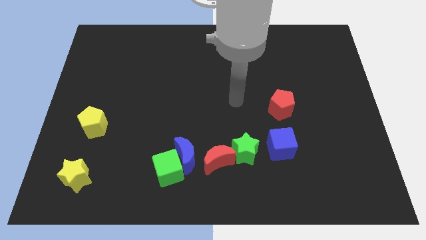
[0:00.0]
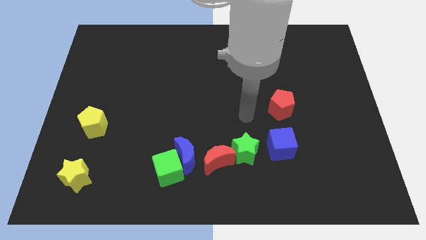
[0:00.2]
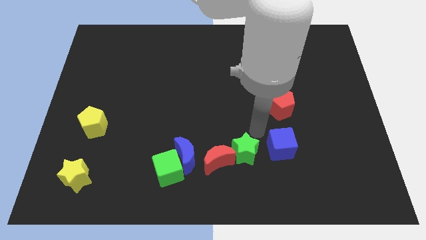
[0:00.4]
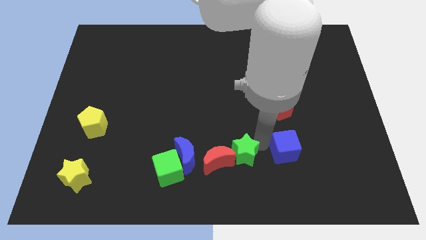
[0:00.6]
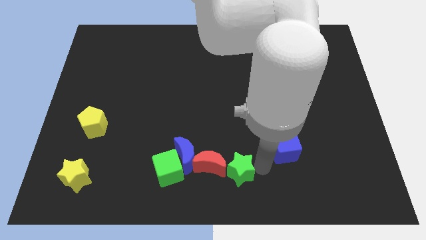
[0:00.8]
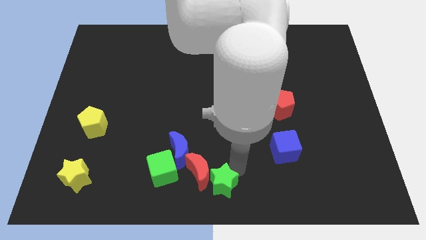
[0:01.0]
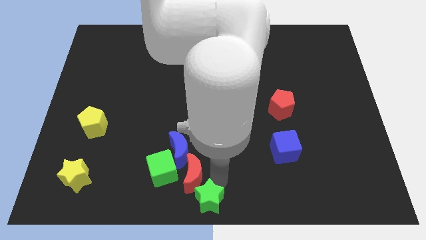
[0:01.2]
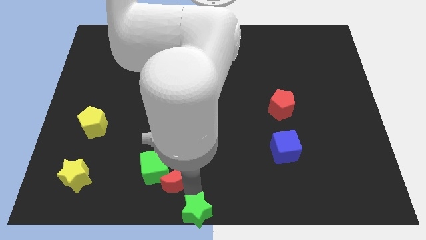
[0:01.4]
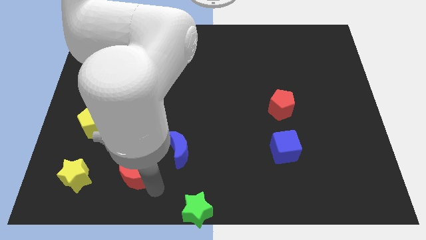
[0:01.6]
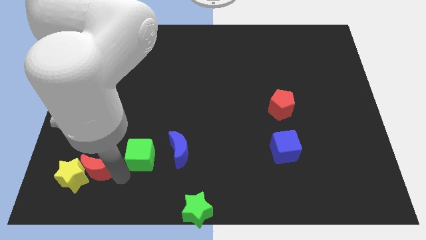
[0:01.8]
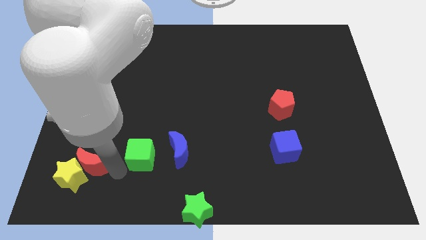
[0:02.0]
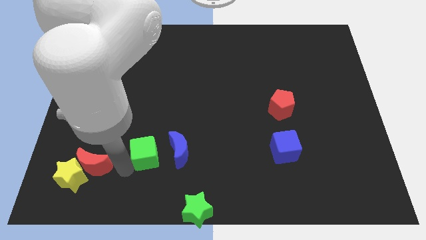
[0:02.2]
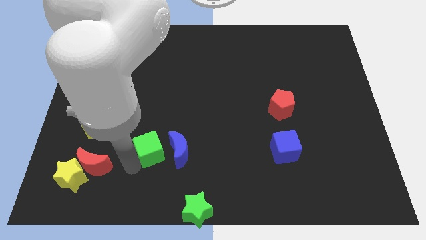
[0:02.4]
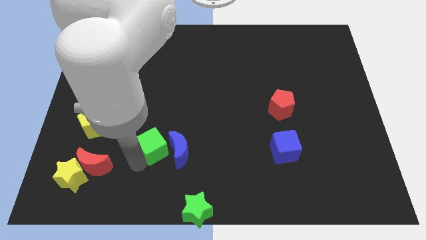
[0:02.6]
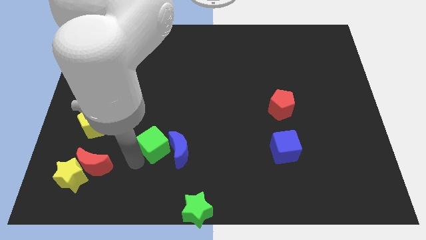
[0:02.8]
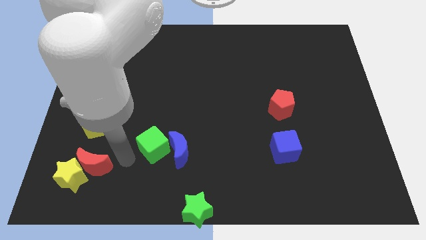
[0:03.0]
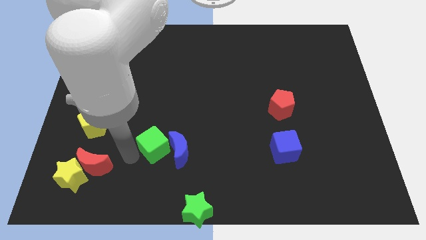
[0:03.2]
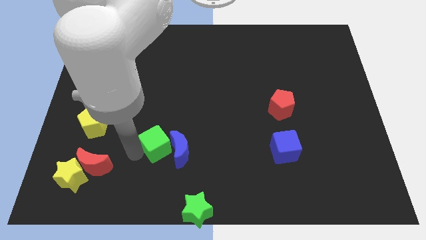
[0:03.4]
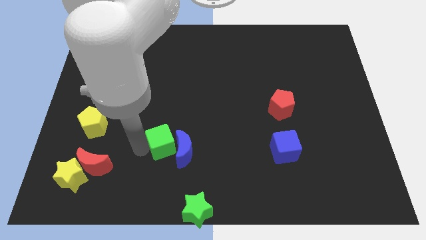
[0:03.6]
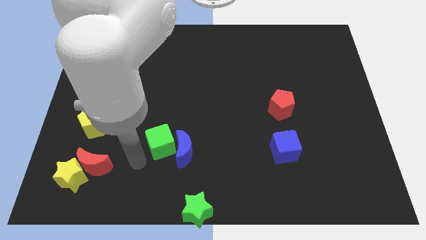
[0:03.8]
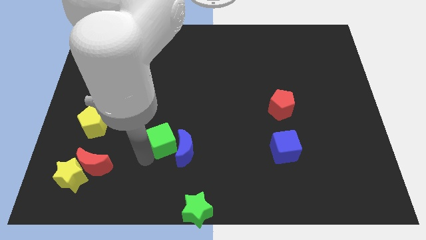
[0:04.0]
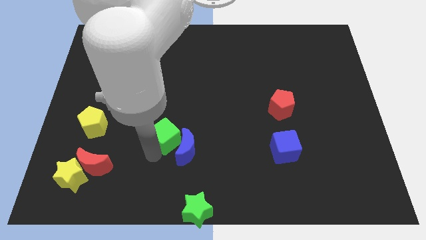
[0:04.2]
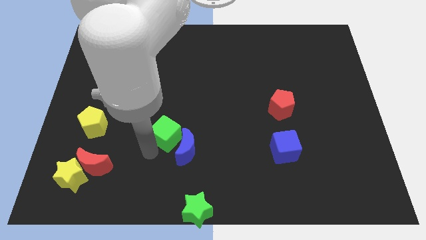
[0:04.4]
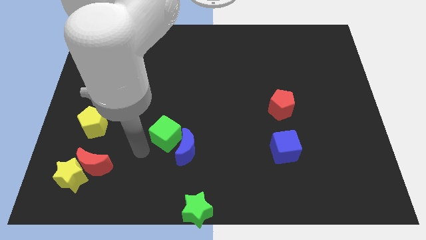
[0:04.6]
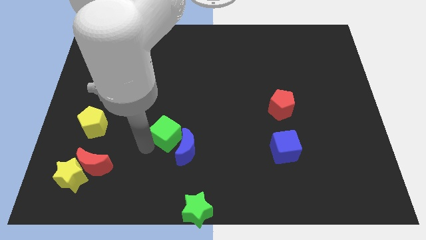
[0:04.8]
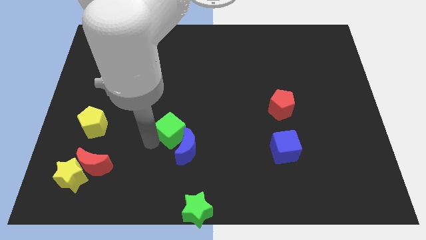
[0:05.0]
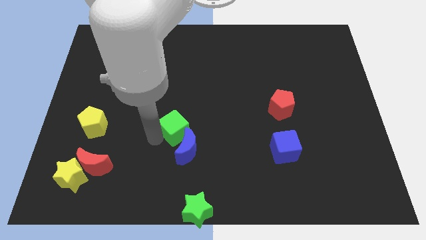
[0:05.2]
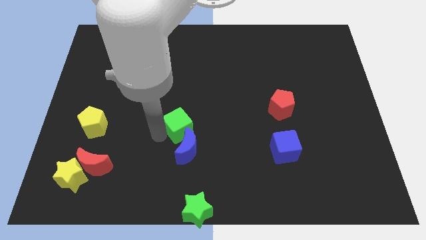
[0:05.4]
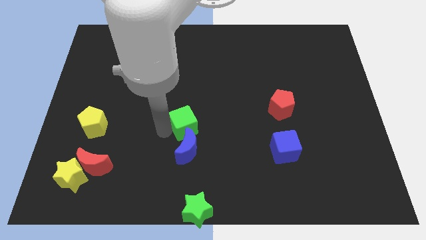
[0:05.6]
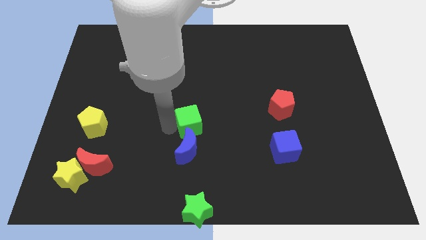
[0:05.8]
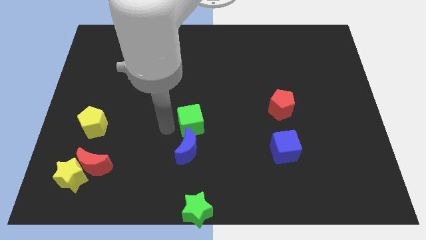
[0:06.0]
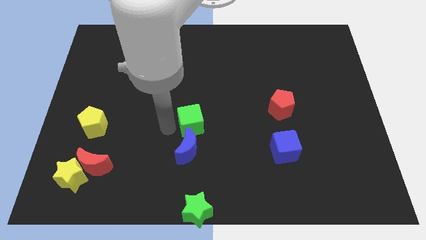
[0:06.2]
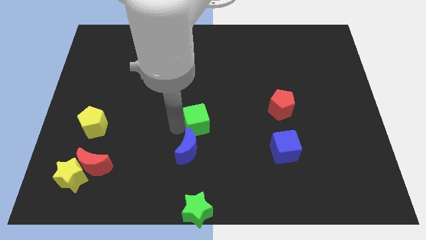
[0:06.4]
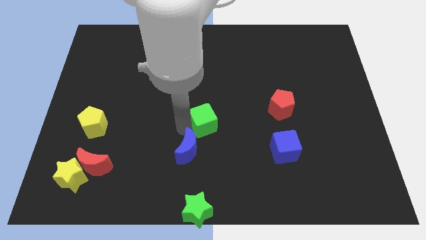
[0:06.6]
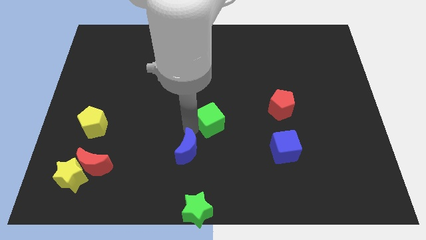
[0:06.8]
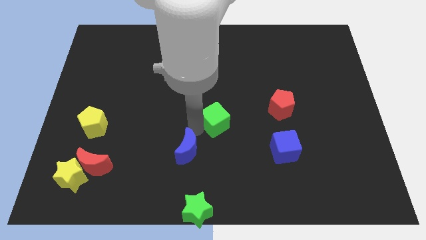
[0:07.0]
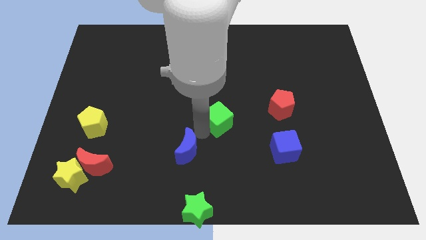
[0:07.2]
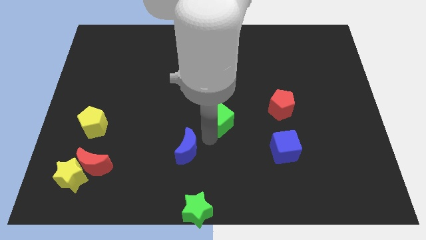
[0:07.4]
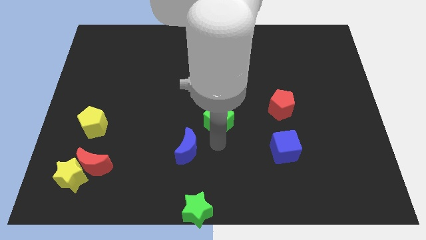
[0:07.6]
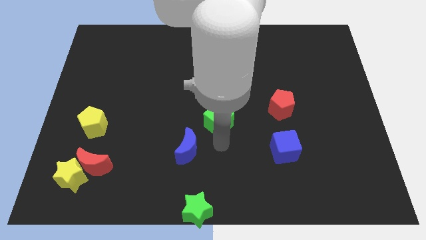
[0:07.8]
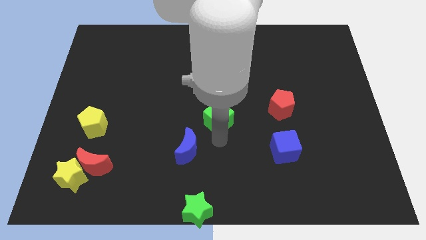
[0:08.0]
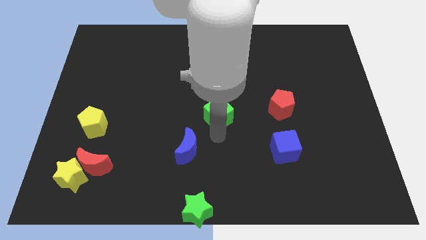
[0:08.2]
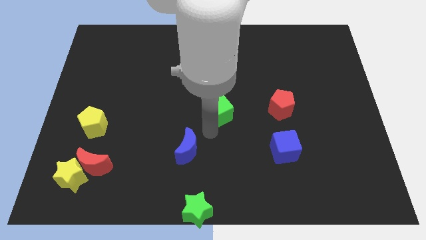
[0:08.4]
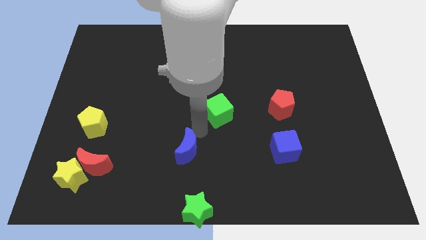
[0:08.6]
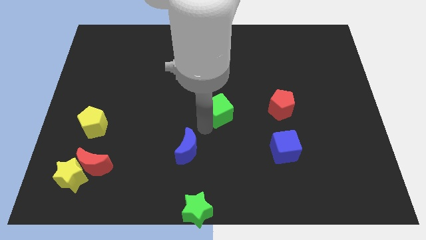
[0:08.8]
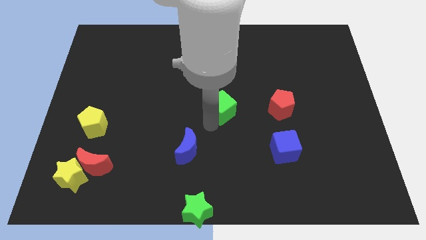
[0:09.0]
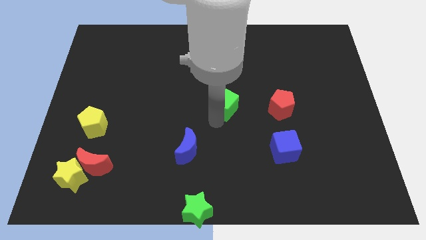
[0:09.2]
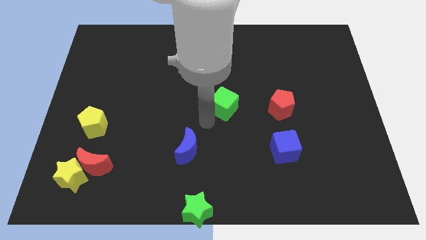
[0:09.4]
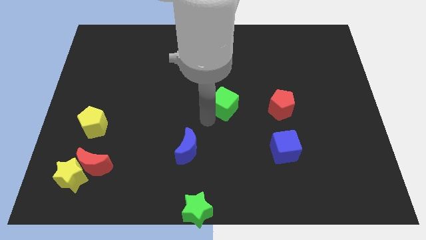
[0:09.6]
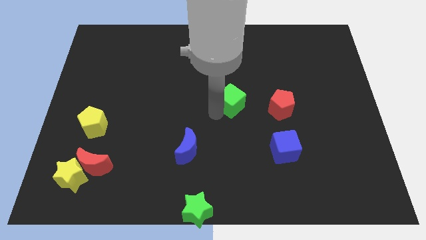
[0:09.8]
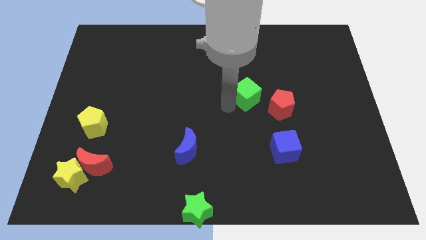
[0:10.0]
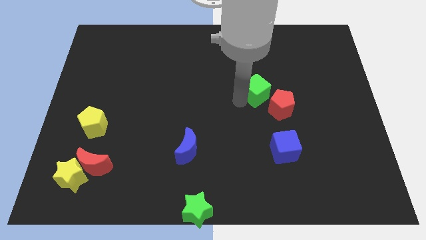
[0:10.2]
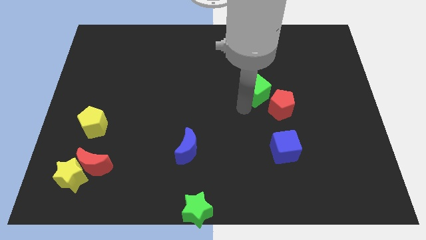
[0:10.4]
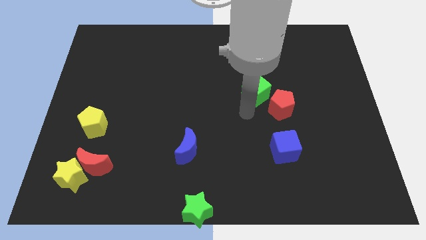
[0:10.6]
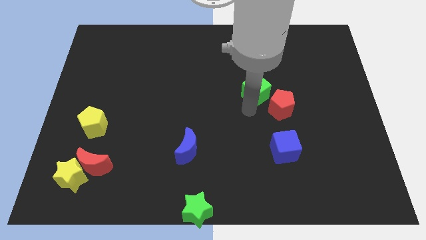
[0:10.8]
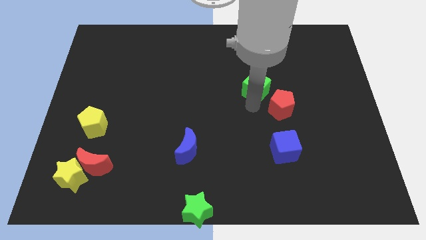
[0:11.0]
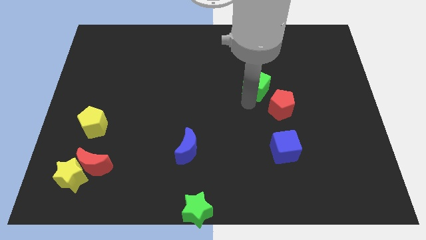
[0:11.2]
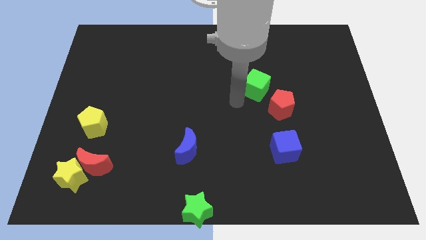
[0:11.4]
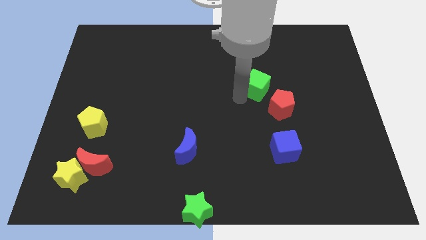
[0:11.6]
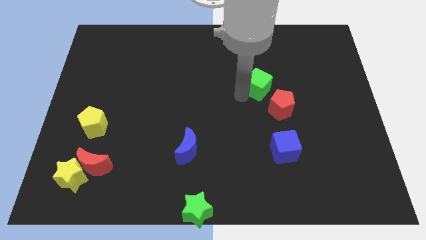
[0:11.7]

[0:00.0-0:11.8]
slide the green cube to the top side of the red pentagon

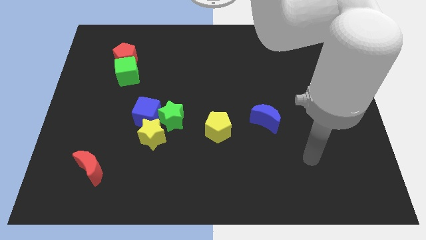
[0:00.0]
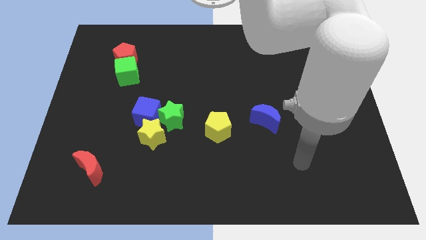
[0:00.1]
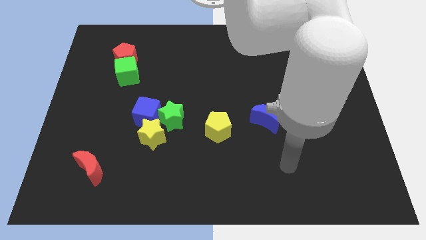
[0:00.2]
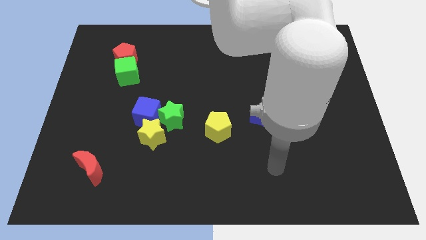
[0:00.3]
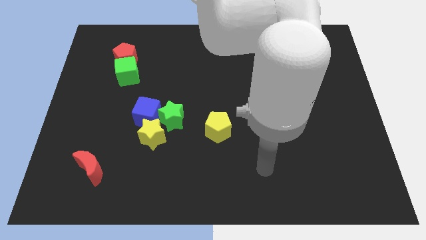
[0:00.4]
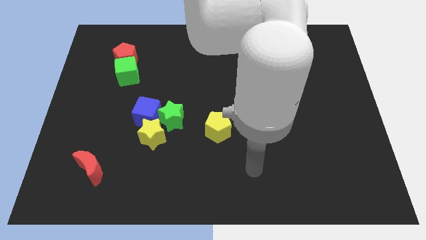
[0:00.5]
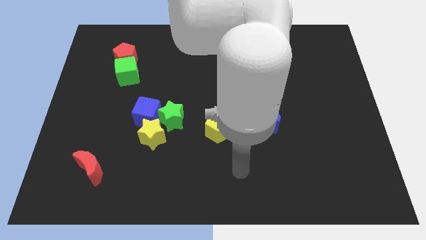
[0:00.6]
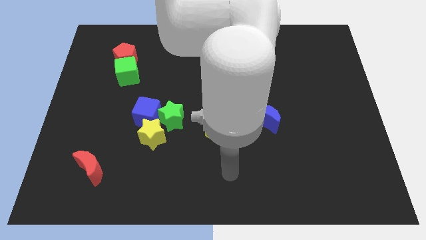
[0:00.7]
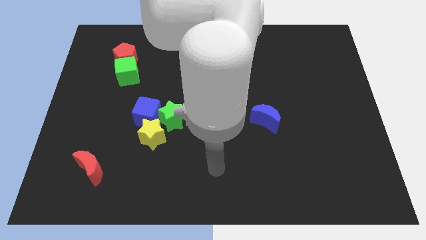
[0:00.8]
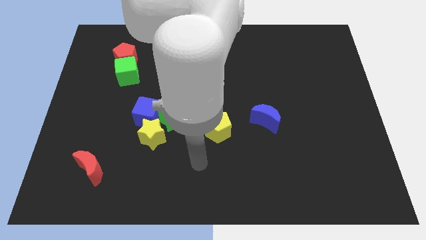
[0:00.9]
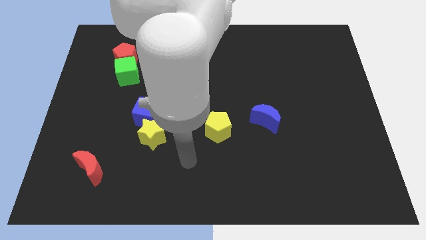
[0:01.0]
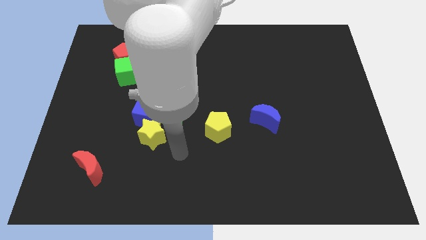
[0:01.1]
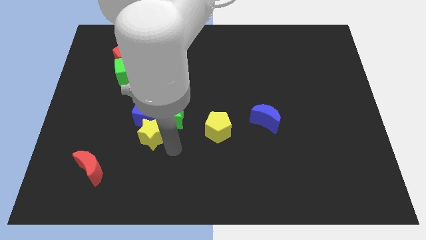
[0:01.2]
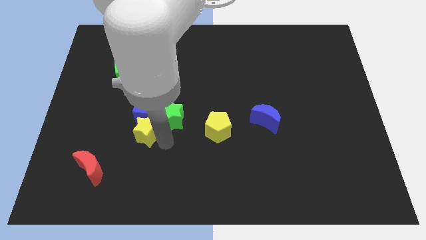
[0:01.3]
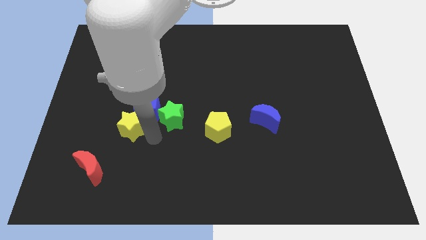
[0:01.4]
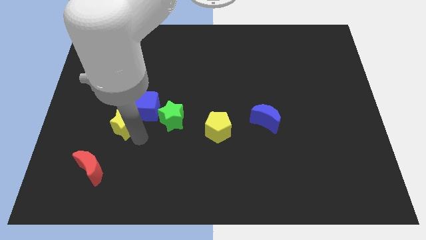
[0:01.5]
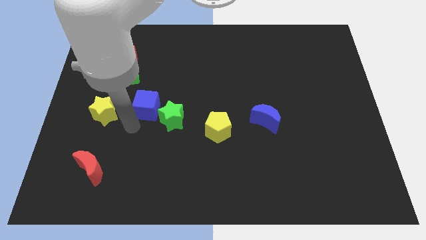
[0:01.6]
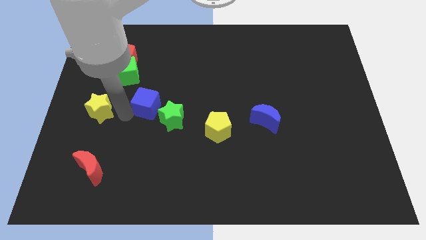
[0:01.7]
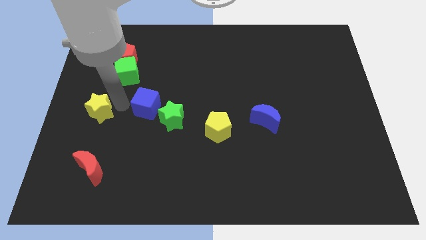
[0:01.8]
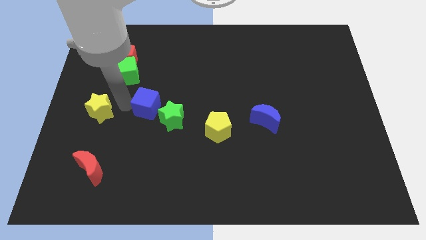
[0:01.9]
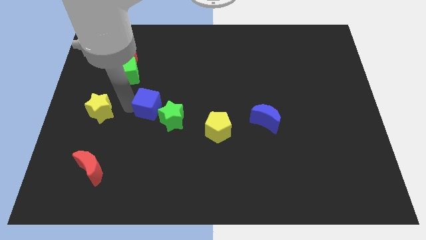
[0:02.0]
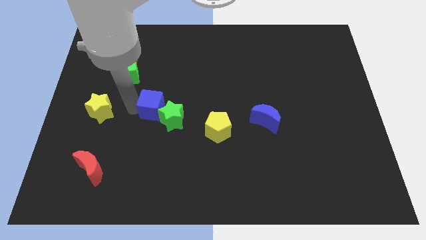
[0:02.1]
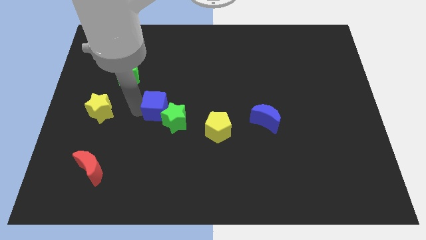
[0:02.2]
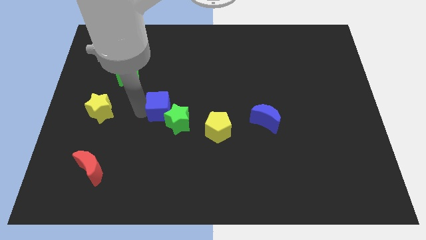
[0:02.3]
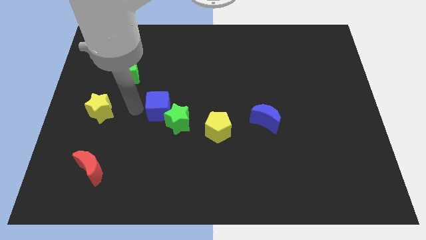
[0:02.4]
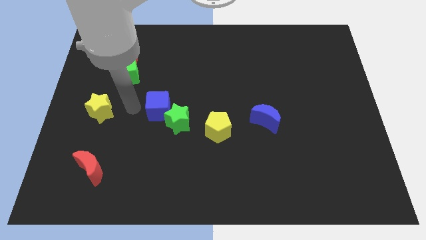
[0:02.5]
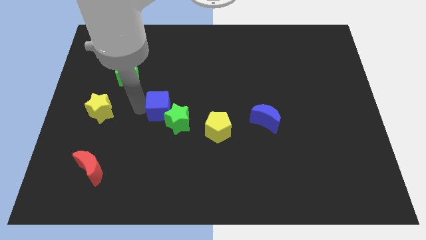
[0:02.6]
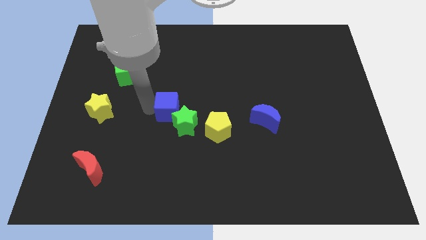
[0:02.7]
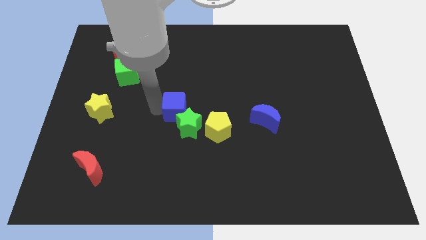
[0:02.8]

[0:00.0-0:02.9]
slide the blue cube to the top left of the yellow pentagon
